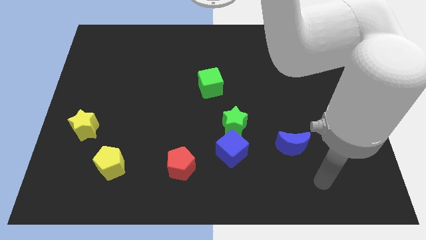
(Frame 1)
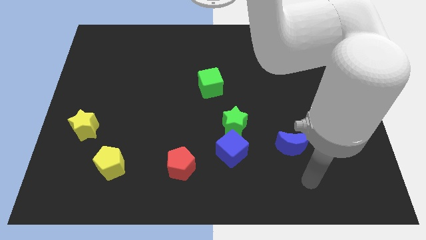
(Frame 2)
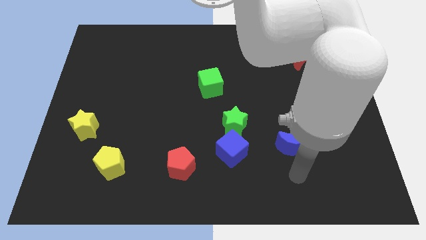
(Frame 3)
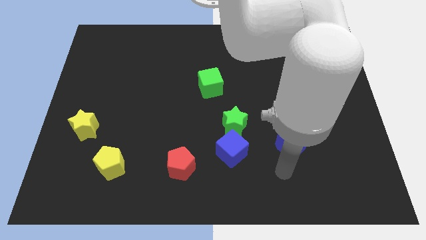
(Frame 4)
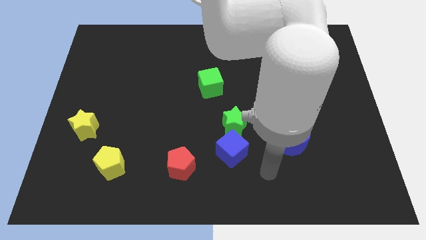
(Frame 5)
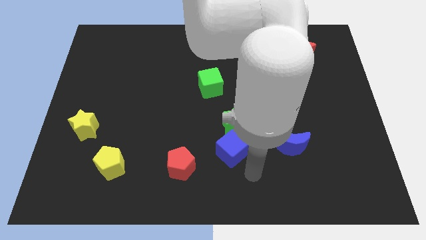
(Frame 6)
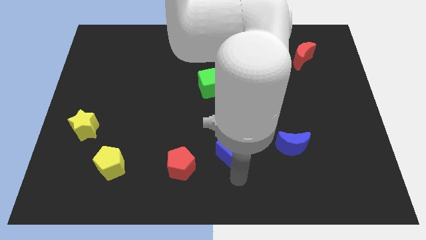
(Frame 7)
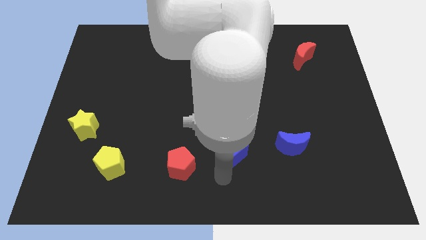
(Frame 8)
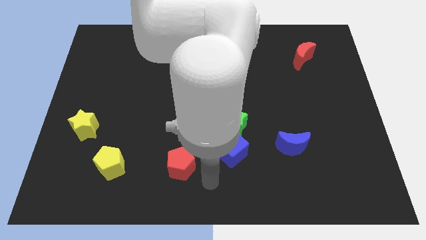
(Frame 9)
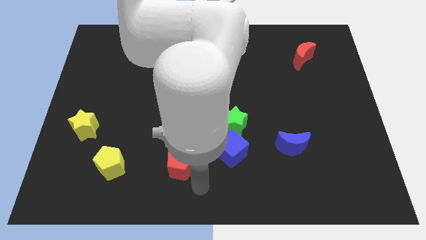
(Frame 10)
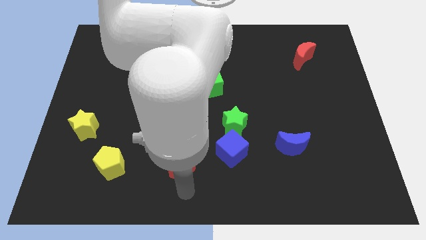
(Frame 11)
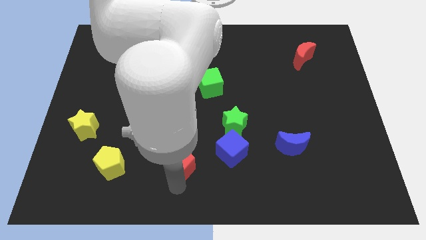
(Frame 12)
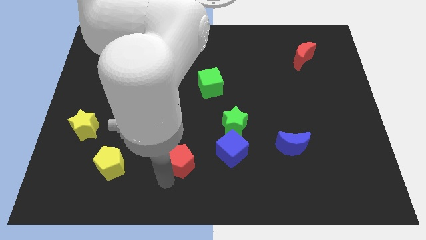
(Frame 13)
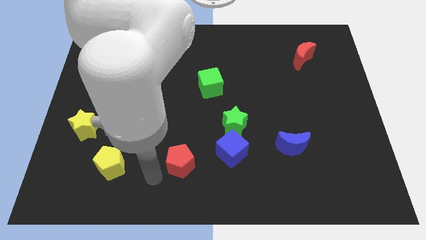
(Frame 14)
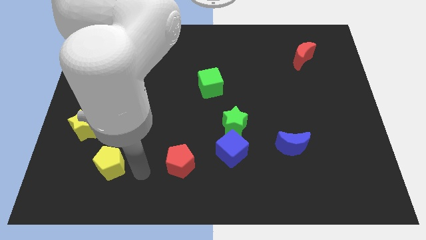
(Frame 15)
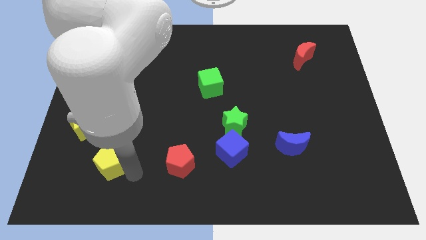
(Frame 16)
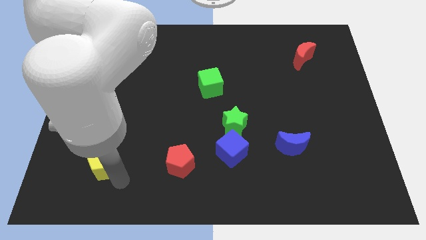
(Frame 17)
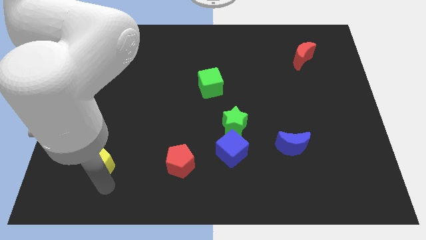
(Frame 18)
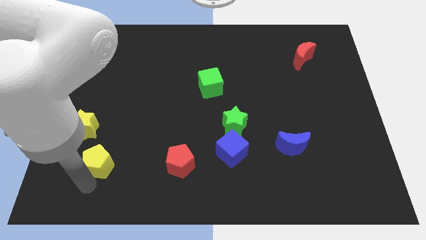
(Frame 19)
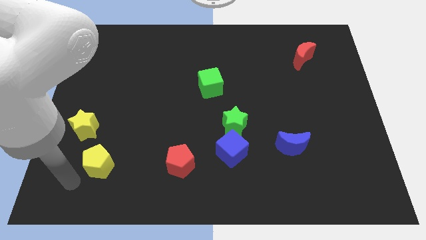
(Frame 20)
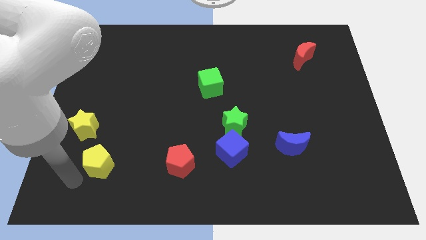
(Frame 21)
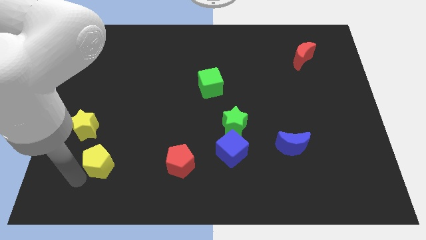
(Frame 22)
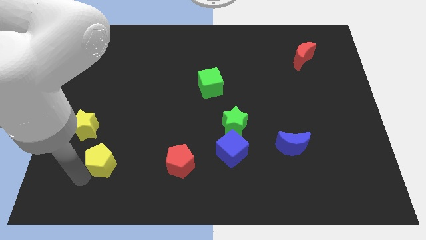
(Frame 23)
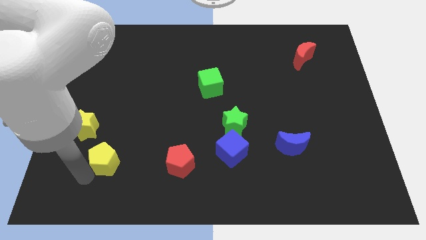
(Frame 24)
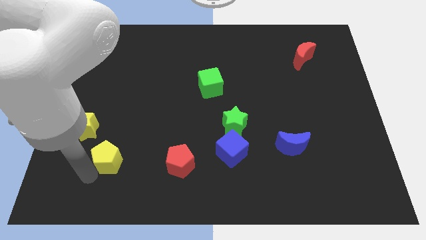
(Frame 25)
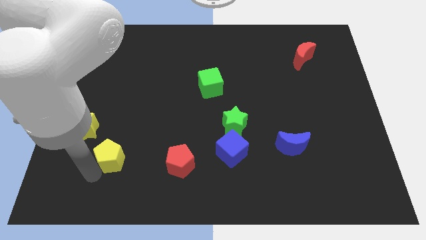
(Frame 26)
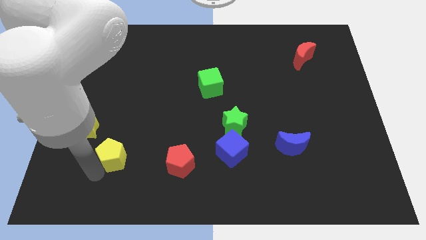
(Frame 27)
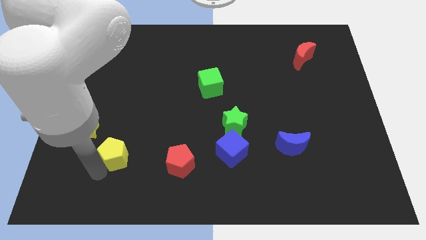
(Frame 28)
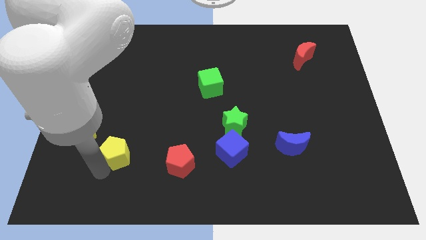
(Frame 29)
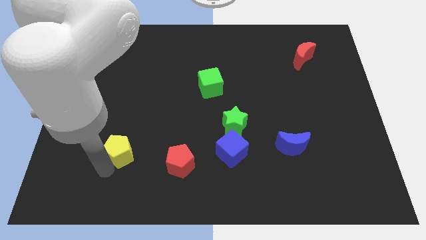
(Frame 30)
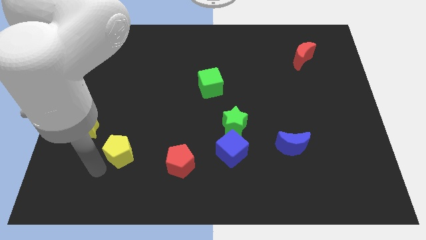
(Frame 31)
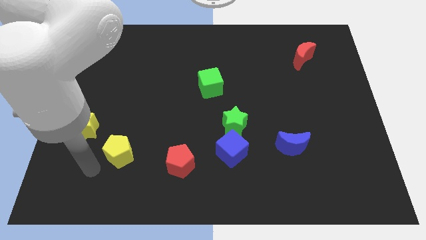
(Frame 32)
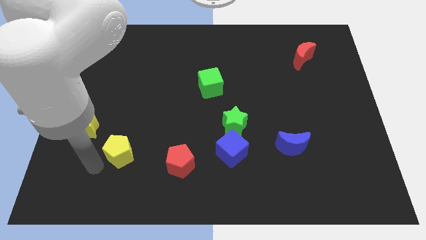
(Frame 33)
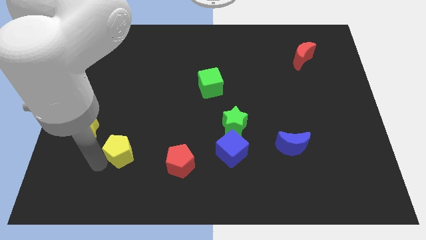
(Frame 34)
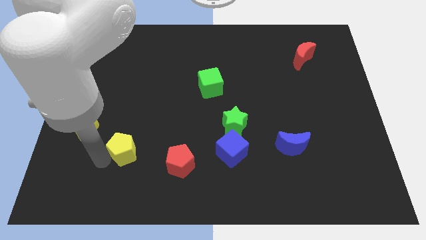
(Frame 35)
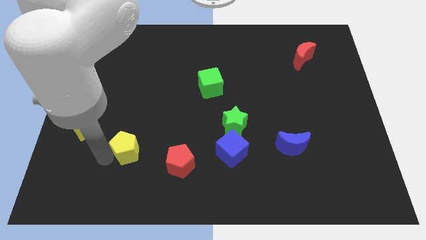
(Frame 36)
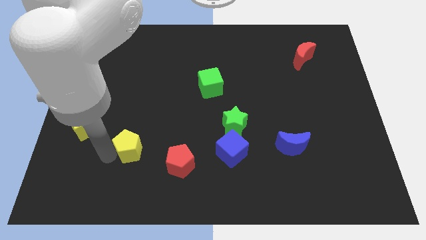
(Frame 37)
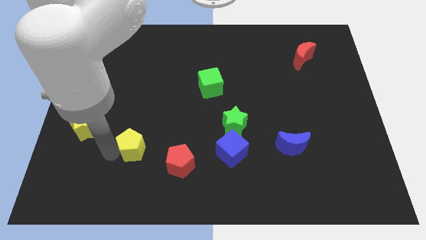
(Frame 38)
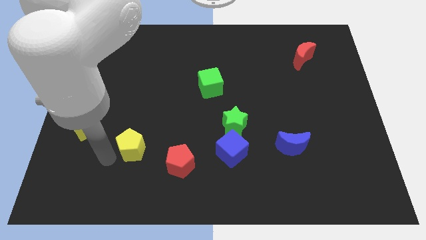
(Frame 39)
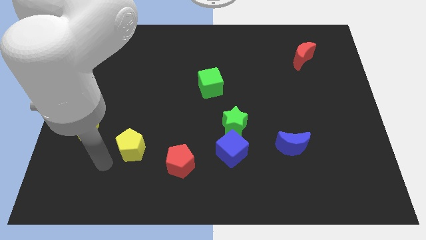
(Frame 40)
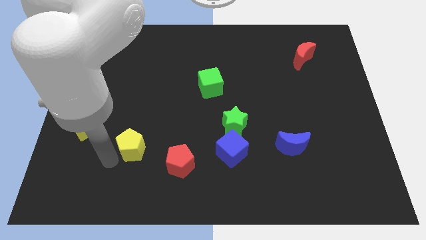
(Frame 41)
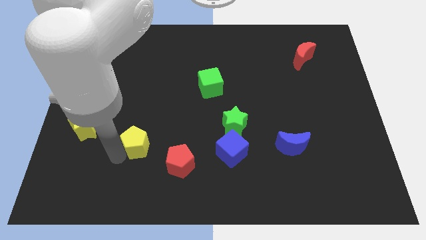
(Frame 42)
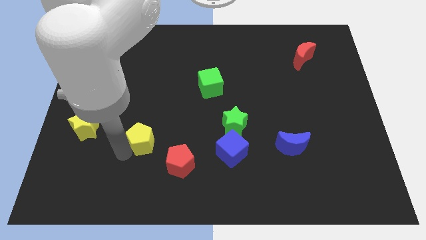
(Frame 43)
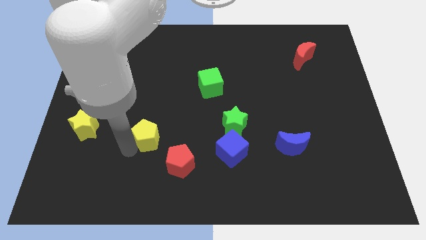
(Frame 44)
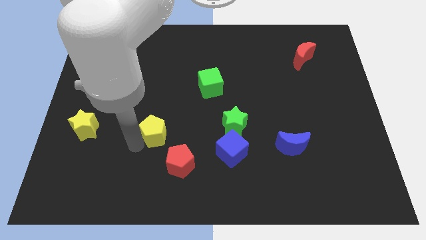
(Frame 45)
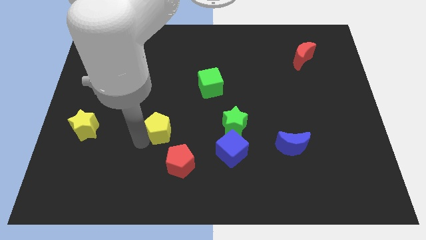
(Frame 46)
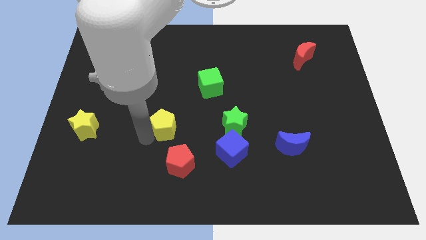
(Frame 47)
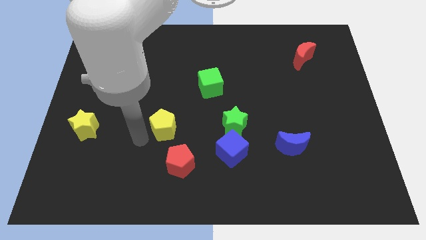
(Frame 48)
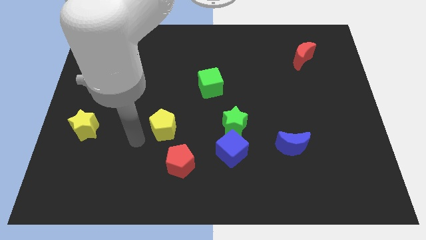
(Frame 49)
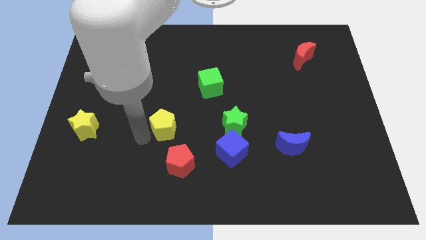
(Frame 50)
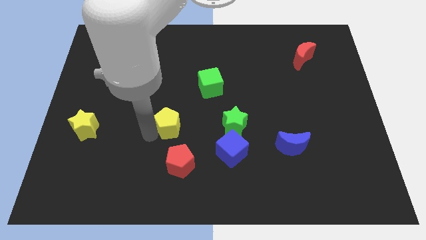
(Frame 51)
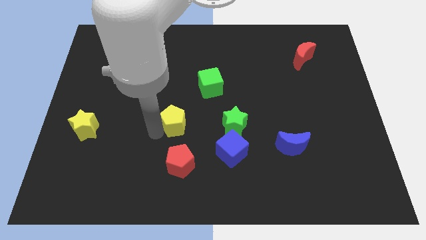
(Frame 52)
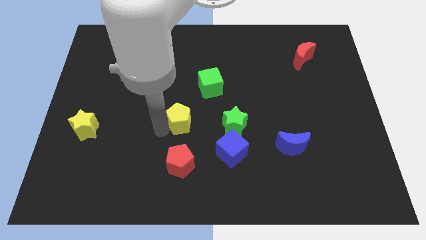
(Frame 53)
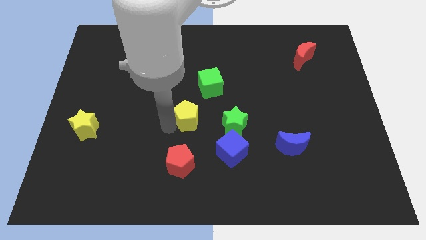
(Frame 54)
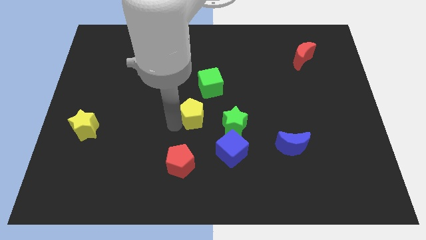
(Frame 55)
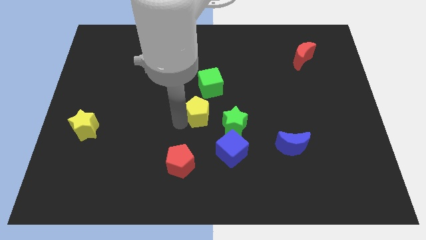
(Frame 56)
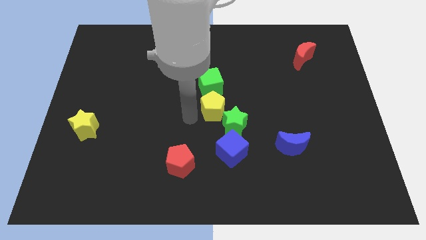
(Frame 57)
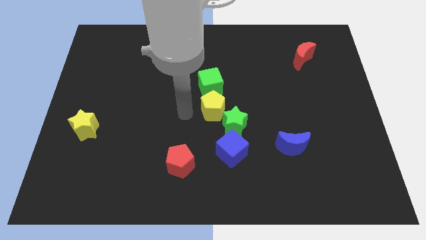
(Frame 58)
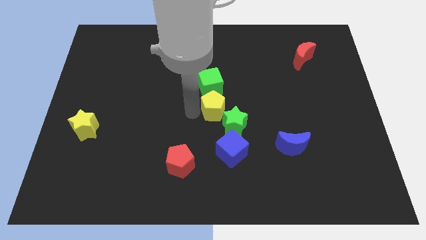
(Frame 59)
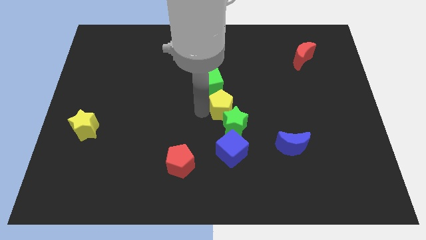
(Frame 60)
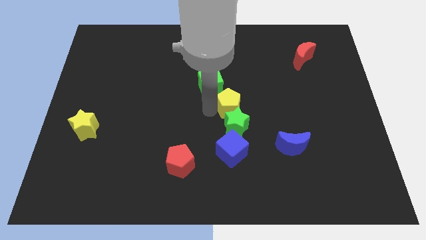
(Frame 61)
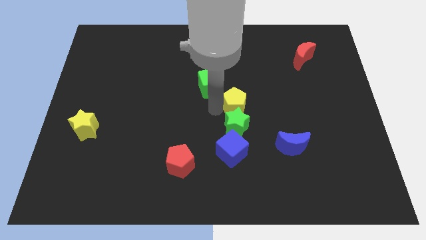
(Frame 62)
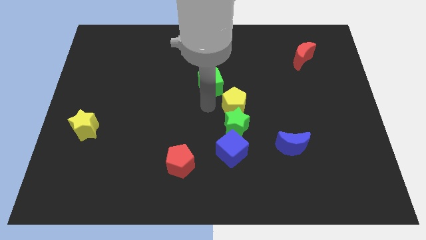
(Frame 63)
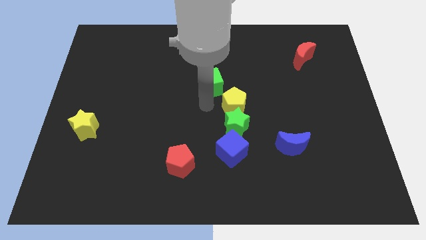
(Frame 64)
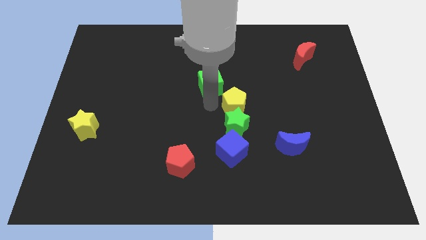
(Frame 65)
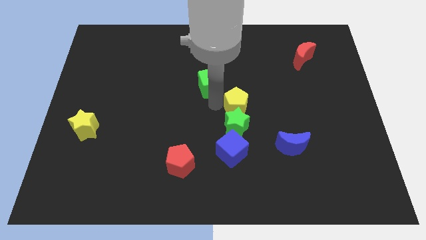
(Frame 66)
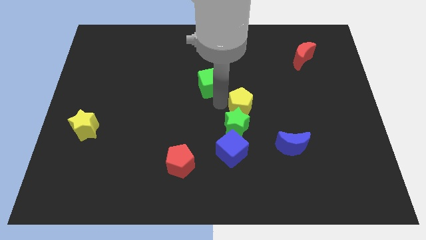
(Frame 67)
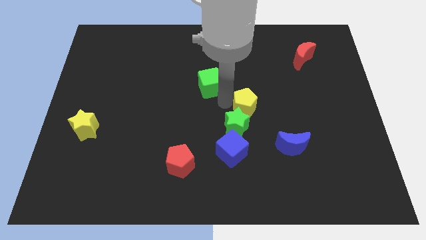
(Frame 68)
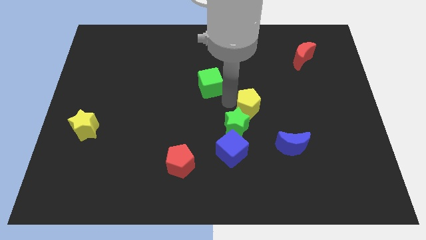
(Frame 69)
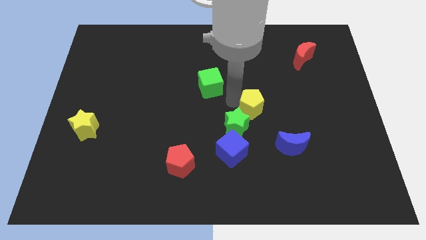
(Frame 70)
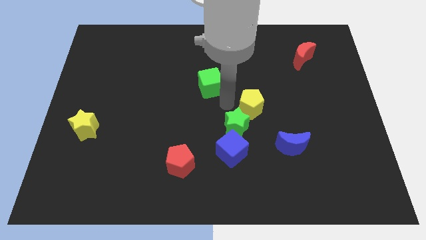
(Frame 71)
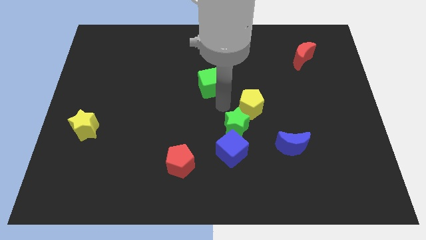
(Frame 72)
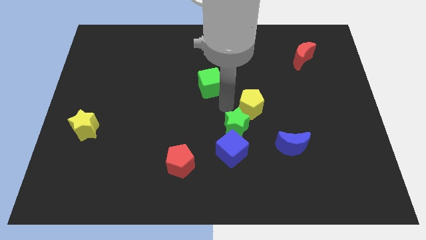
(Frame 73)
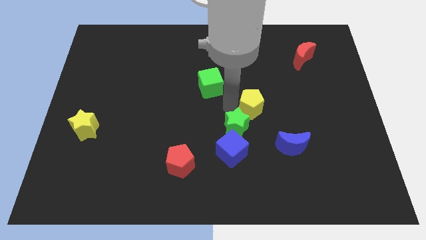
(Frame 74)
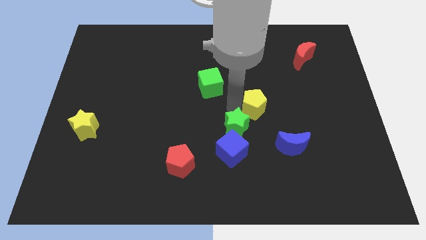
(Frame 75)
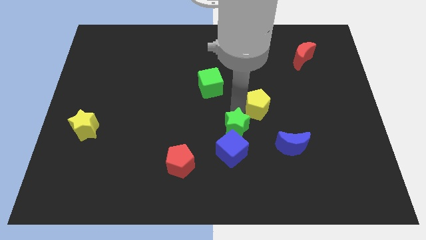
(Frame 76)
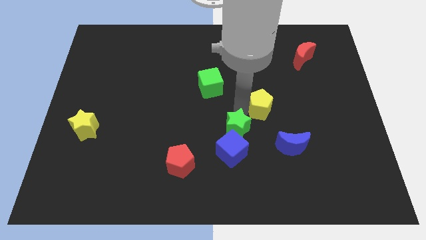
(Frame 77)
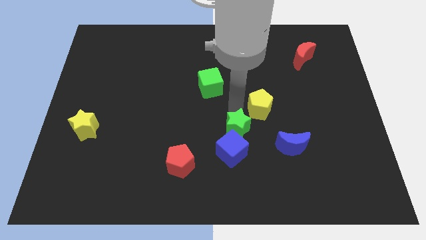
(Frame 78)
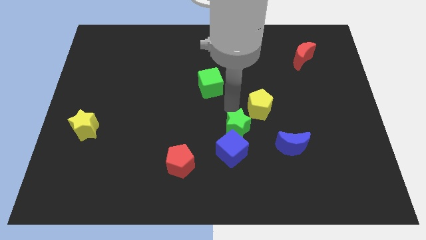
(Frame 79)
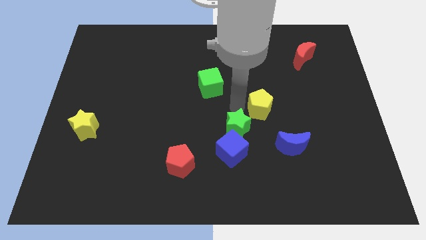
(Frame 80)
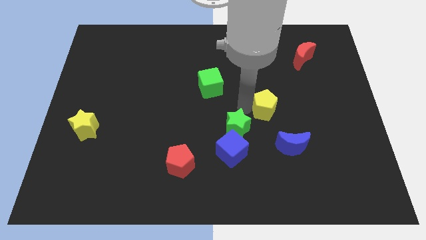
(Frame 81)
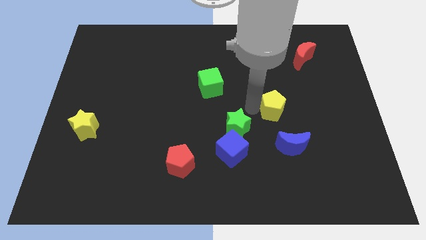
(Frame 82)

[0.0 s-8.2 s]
slide the yellow pentagon to the top side of the blue moon

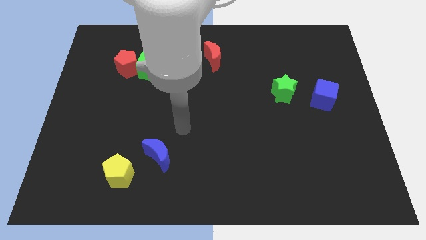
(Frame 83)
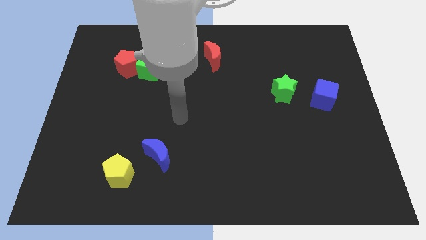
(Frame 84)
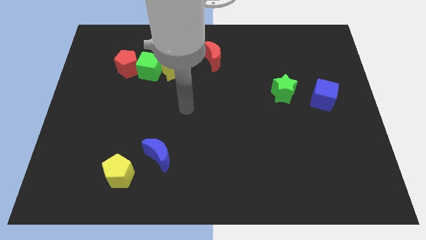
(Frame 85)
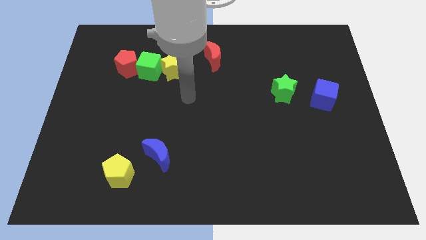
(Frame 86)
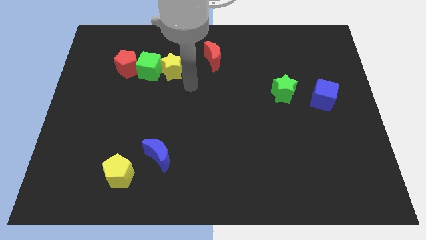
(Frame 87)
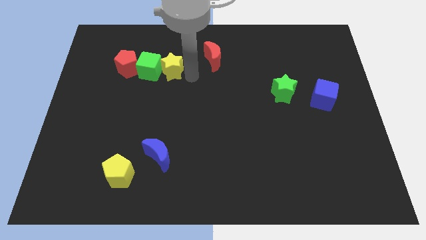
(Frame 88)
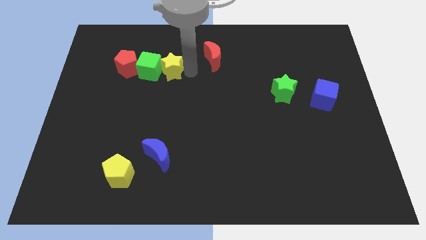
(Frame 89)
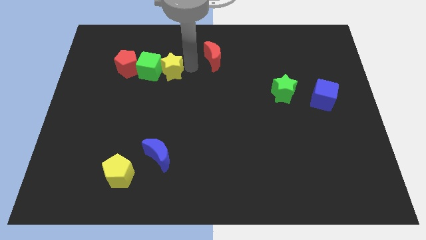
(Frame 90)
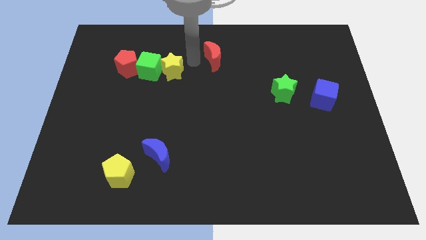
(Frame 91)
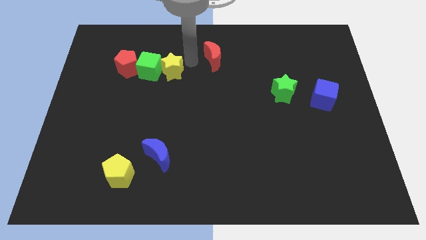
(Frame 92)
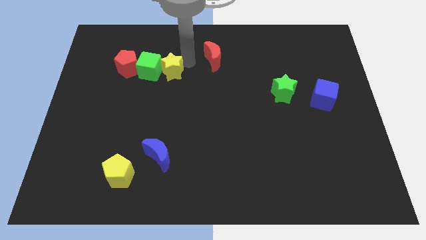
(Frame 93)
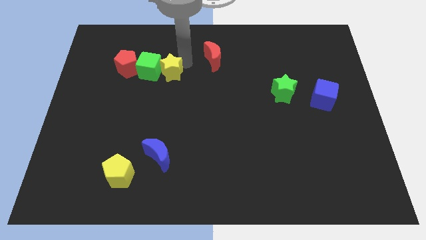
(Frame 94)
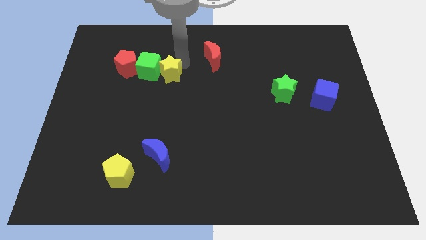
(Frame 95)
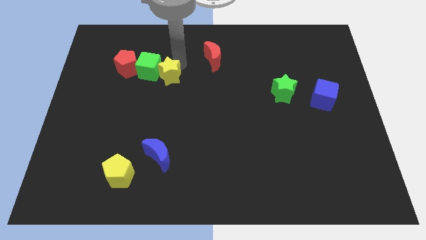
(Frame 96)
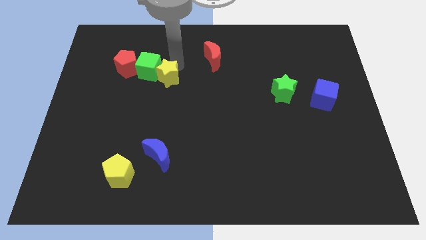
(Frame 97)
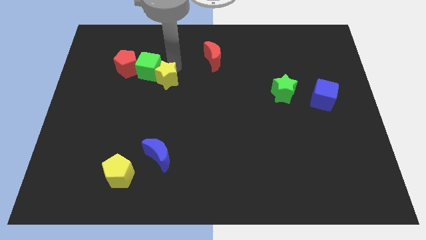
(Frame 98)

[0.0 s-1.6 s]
push the yellow star to the bottom right side of the red pentagon
